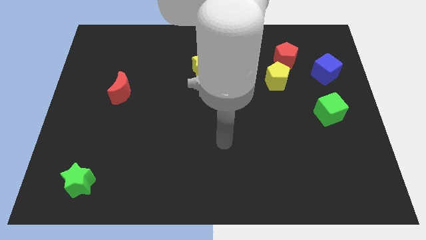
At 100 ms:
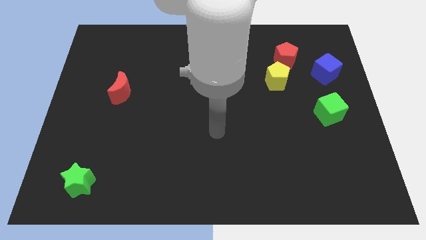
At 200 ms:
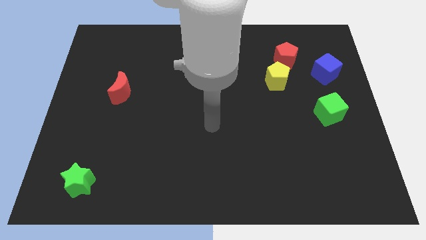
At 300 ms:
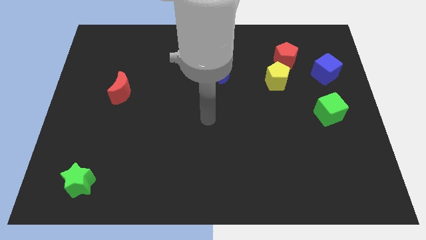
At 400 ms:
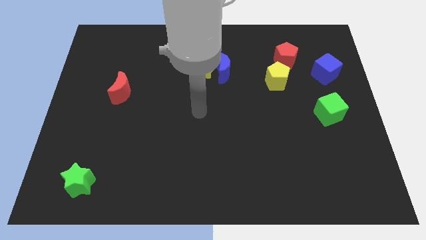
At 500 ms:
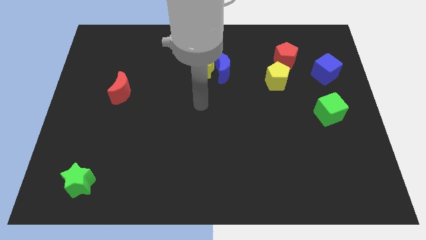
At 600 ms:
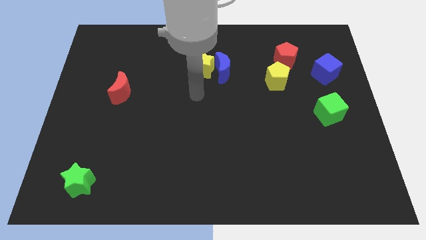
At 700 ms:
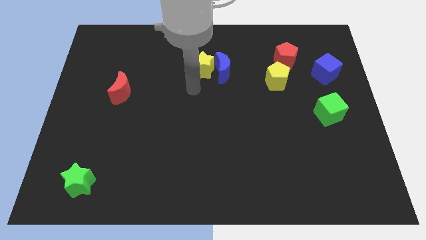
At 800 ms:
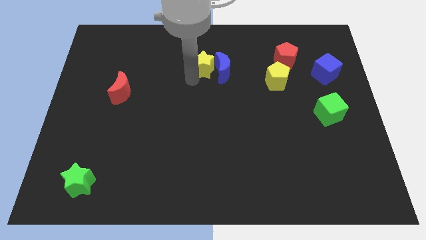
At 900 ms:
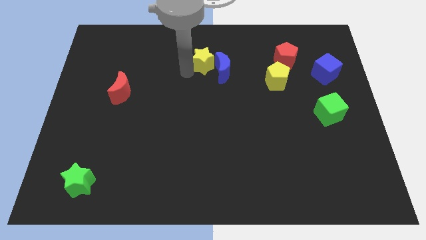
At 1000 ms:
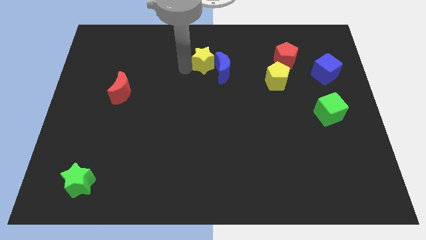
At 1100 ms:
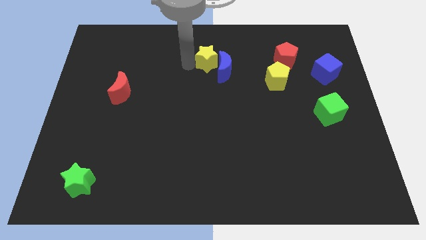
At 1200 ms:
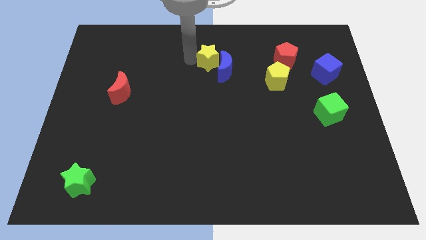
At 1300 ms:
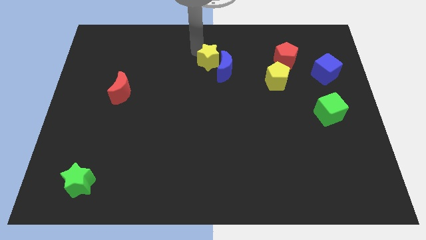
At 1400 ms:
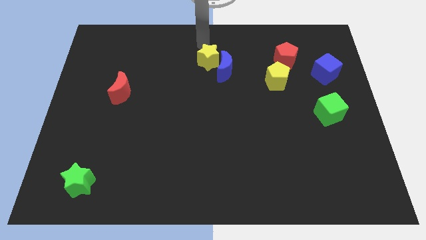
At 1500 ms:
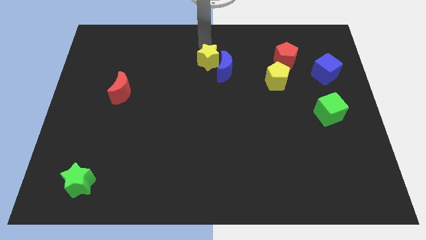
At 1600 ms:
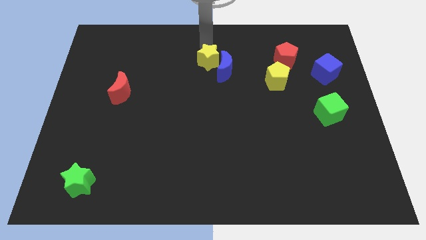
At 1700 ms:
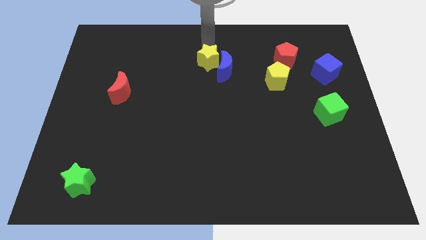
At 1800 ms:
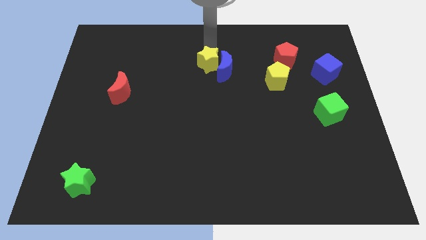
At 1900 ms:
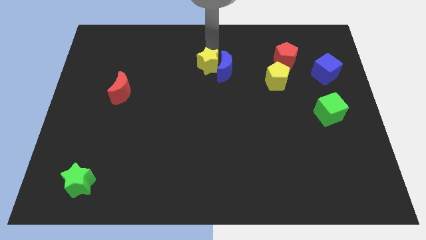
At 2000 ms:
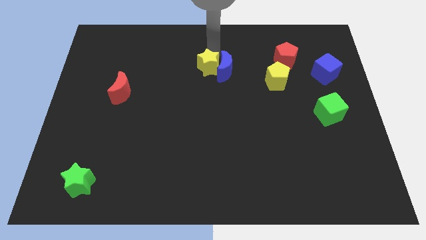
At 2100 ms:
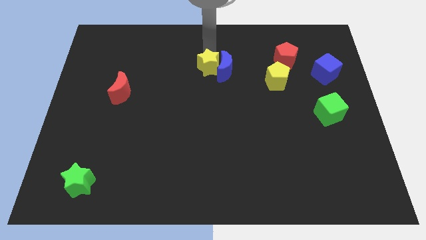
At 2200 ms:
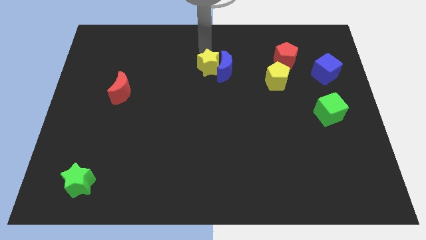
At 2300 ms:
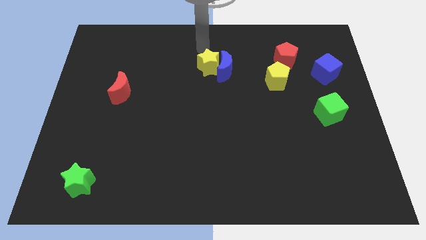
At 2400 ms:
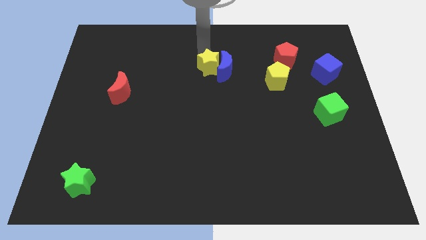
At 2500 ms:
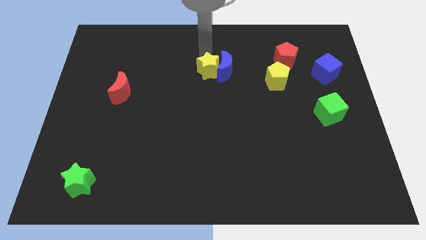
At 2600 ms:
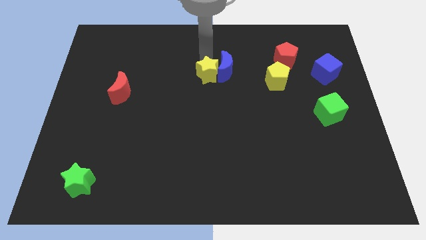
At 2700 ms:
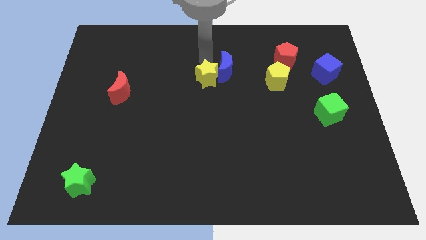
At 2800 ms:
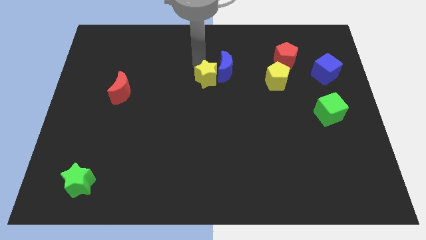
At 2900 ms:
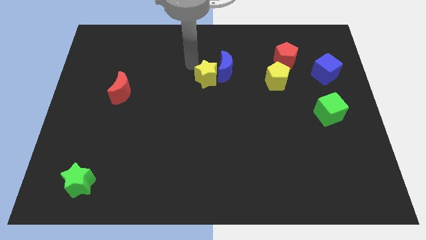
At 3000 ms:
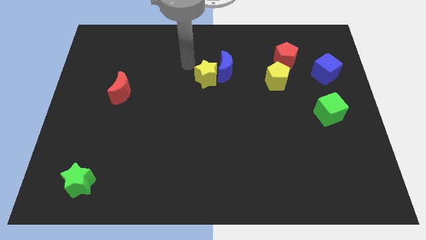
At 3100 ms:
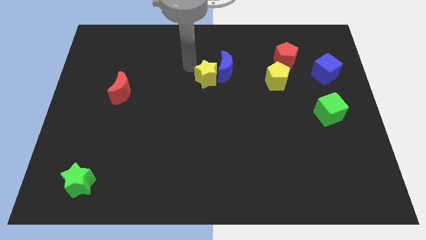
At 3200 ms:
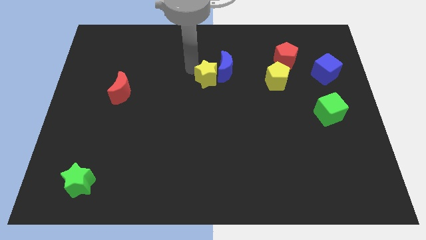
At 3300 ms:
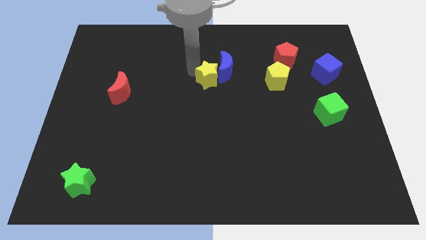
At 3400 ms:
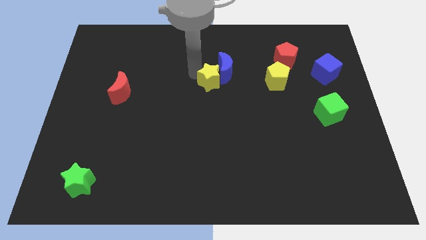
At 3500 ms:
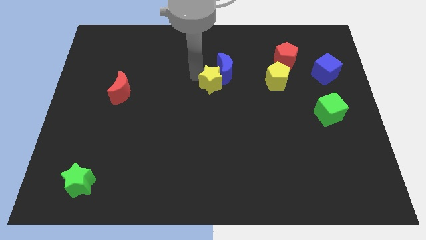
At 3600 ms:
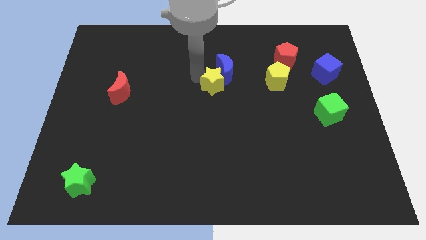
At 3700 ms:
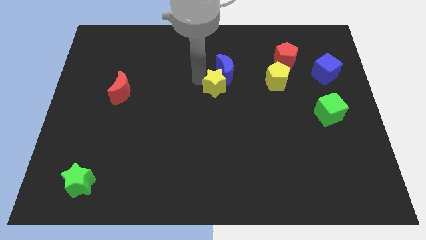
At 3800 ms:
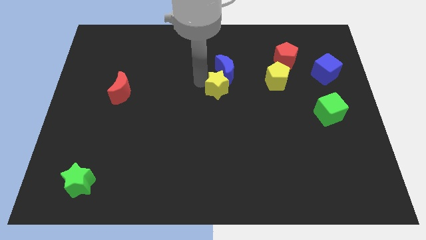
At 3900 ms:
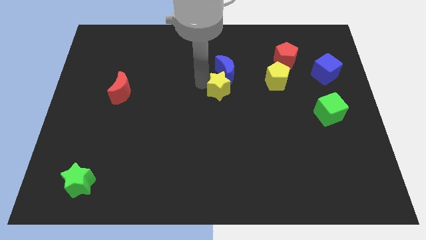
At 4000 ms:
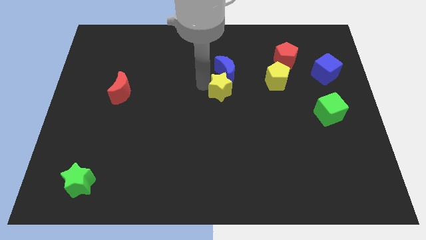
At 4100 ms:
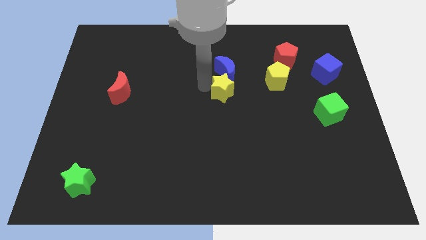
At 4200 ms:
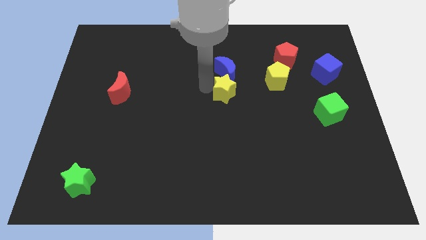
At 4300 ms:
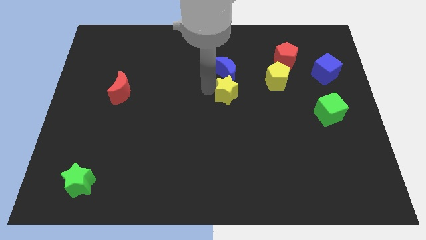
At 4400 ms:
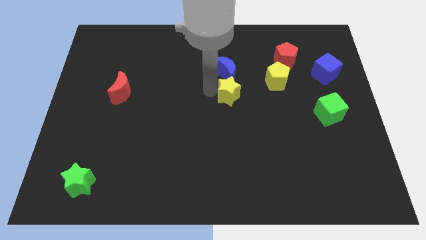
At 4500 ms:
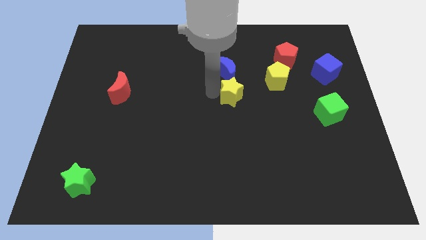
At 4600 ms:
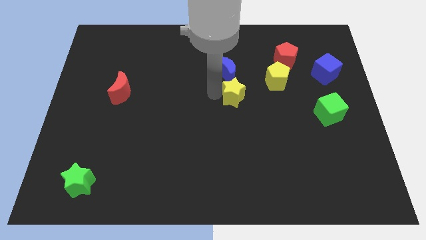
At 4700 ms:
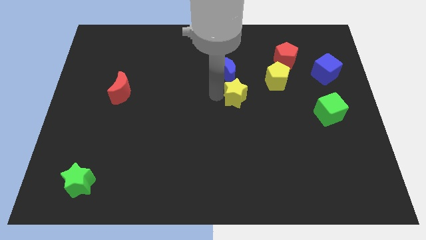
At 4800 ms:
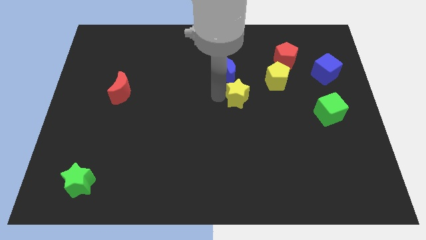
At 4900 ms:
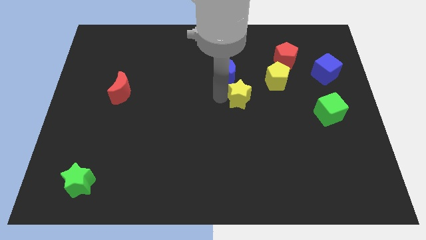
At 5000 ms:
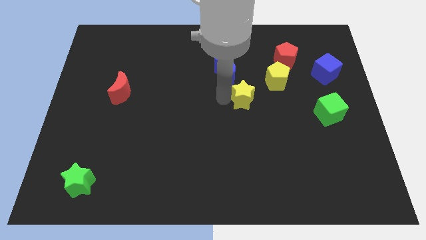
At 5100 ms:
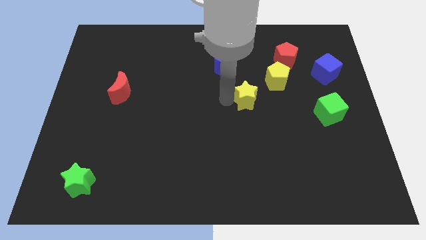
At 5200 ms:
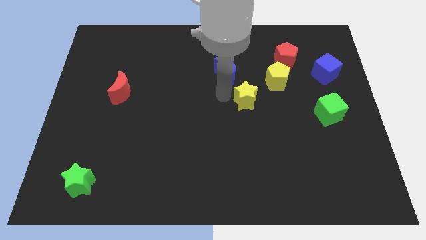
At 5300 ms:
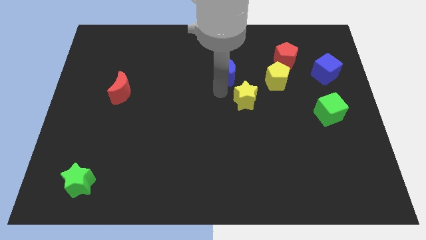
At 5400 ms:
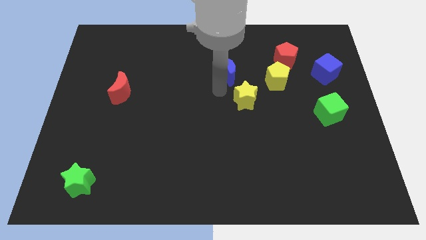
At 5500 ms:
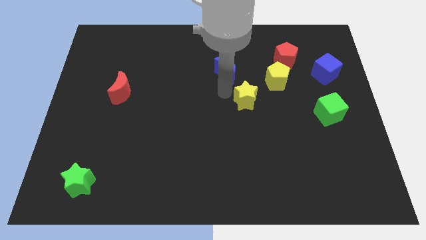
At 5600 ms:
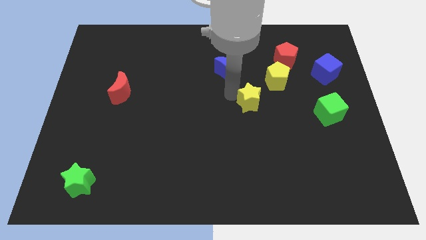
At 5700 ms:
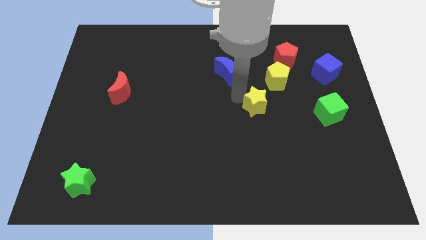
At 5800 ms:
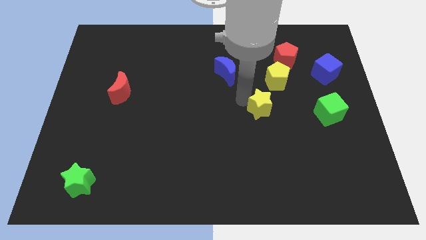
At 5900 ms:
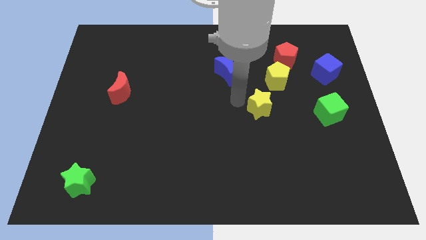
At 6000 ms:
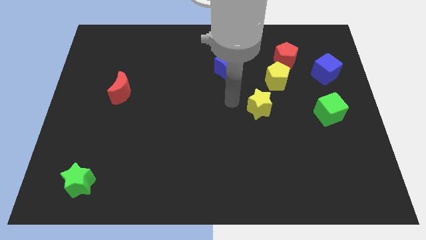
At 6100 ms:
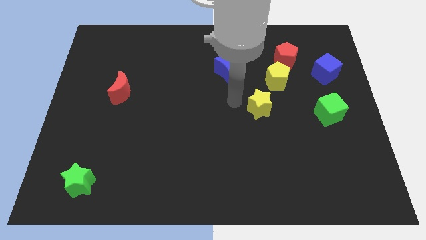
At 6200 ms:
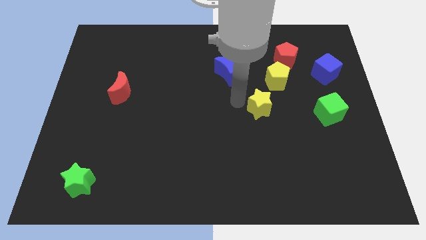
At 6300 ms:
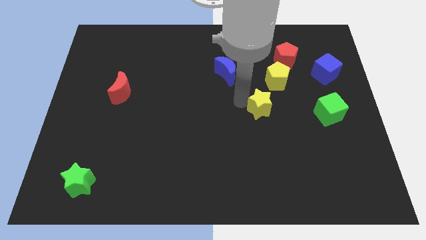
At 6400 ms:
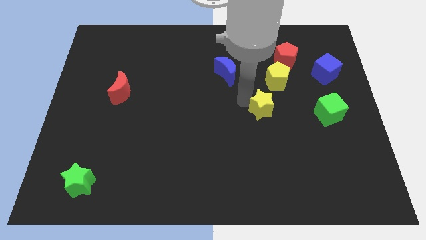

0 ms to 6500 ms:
slide the yellow star left of the green cube

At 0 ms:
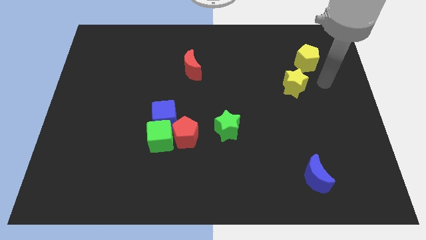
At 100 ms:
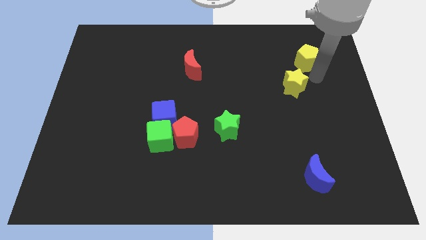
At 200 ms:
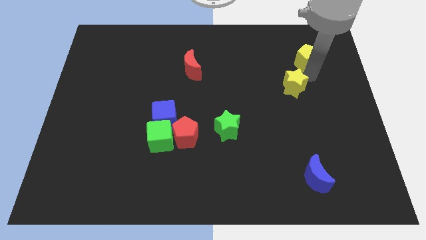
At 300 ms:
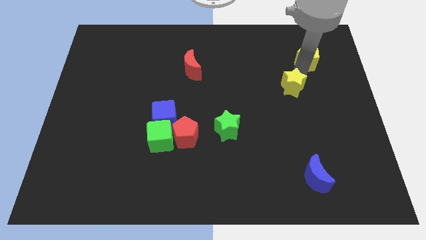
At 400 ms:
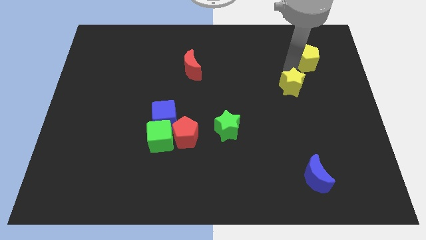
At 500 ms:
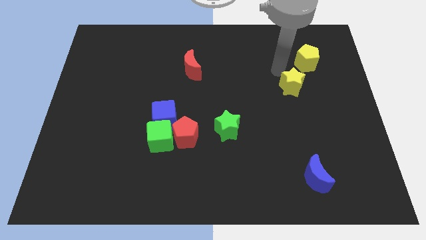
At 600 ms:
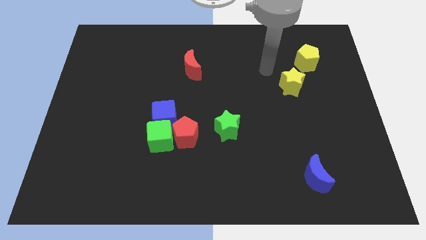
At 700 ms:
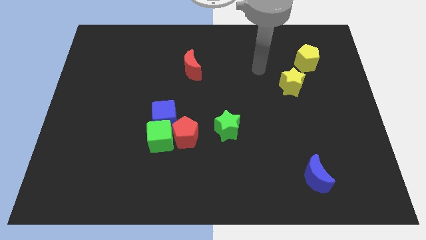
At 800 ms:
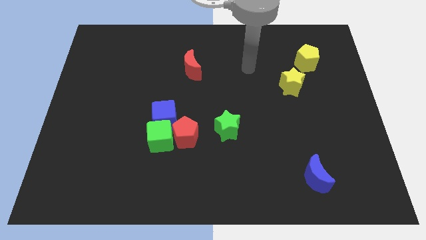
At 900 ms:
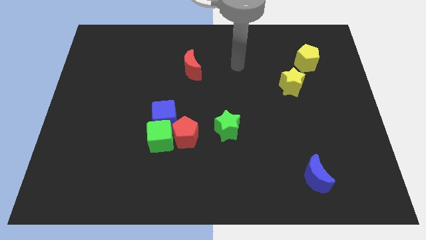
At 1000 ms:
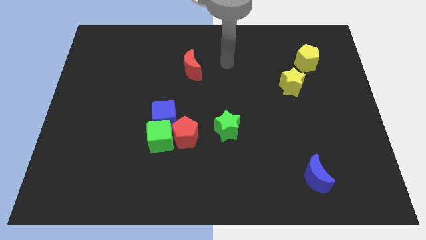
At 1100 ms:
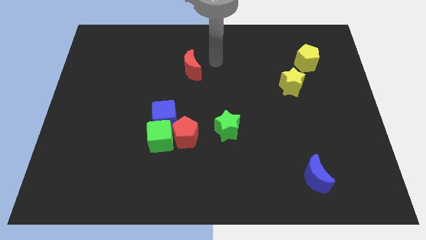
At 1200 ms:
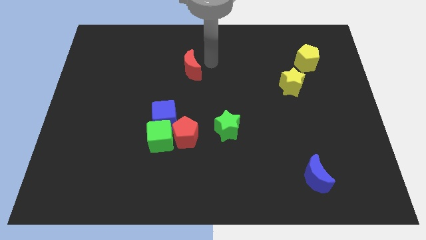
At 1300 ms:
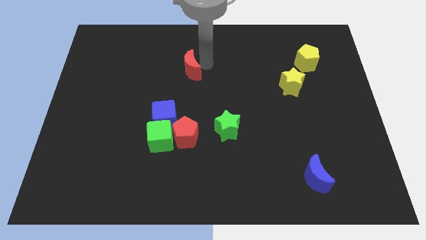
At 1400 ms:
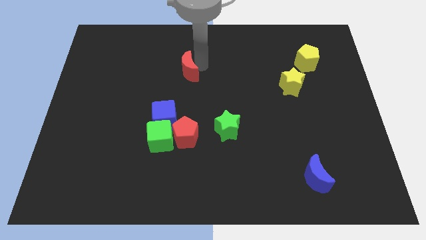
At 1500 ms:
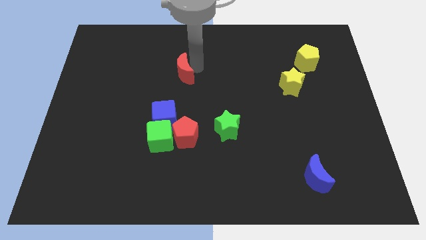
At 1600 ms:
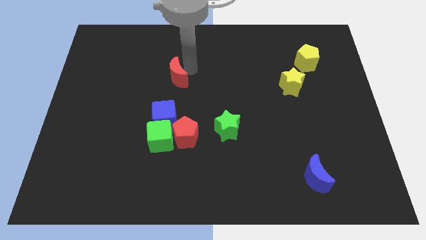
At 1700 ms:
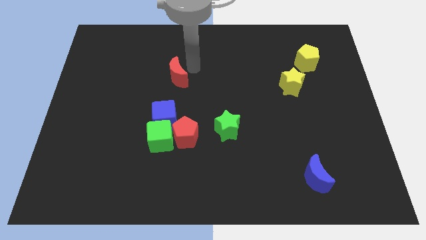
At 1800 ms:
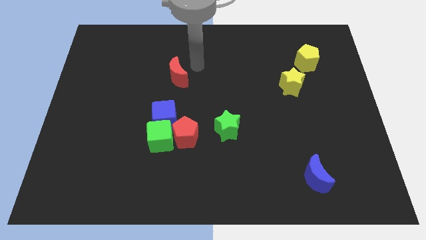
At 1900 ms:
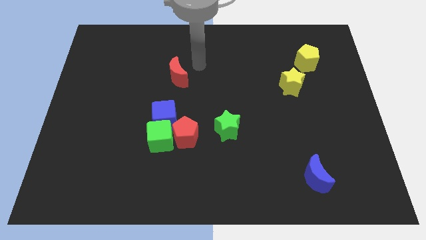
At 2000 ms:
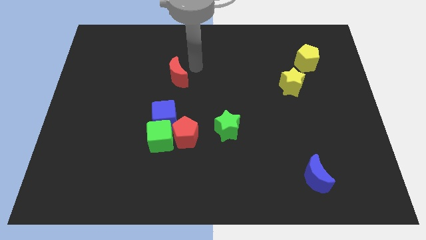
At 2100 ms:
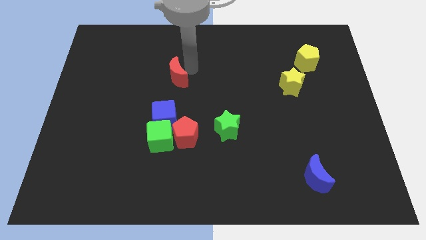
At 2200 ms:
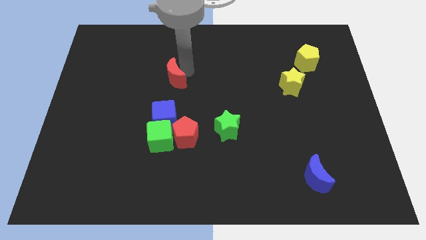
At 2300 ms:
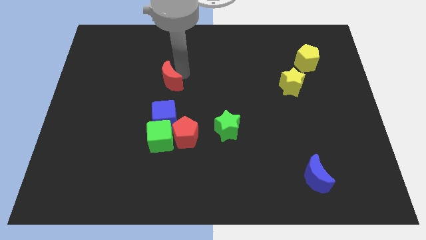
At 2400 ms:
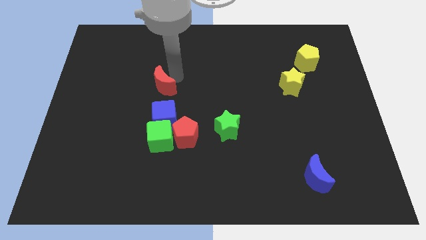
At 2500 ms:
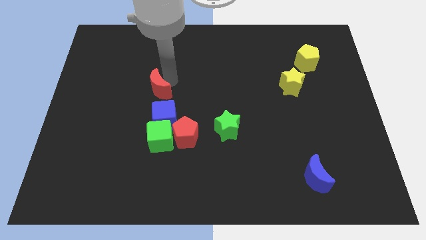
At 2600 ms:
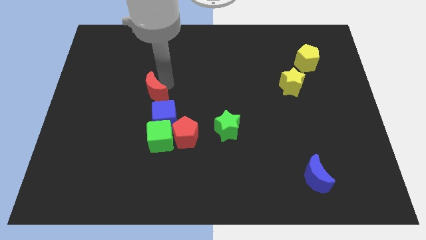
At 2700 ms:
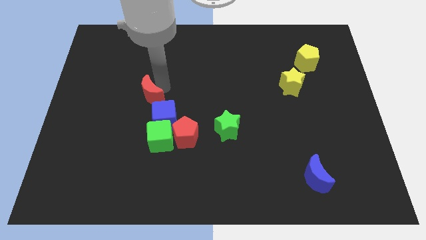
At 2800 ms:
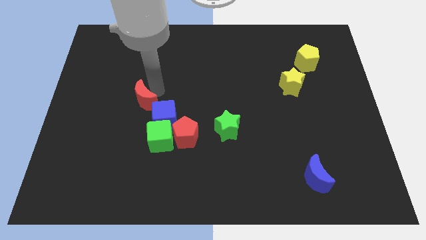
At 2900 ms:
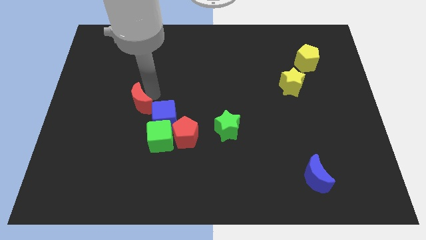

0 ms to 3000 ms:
push the red moon just left of the blue cube
